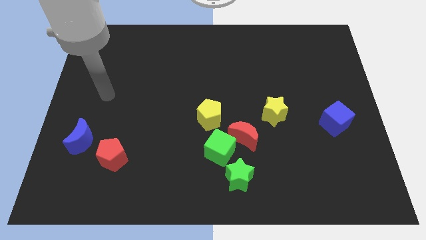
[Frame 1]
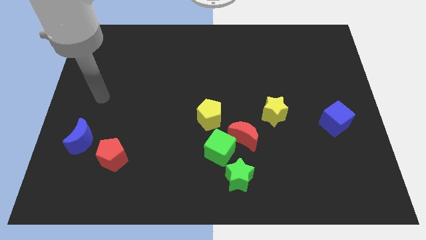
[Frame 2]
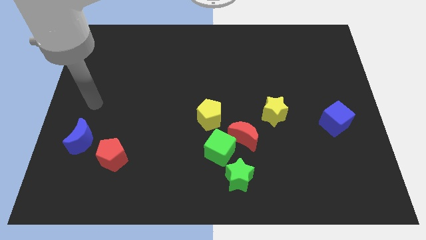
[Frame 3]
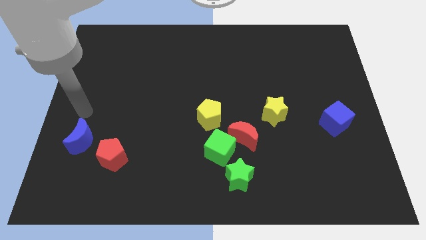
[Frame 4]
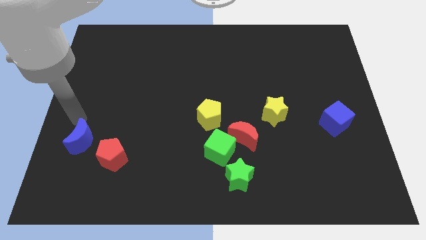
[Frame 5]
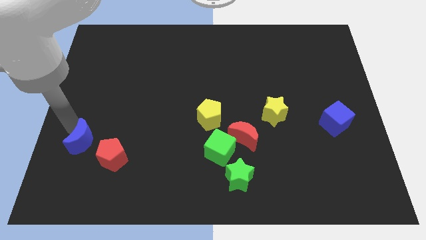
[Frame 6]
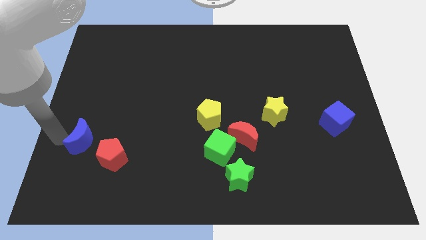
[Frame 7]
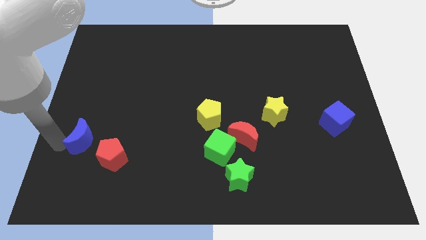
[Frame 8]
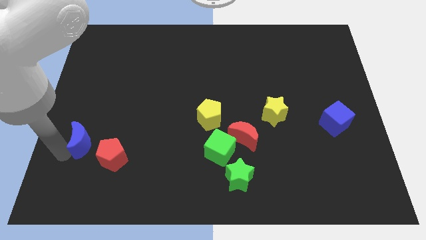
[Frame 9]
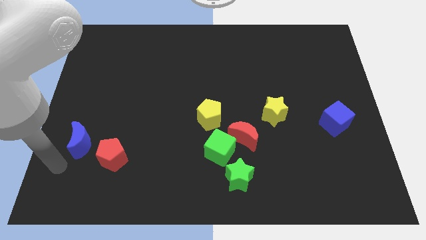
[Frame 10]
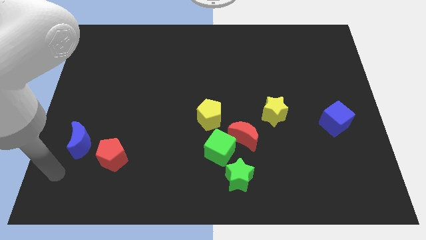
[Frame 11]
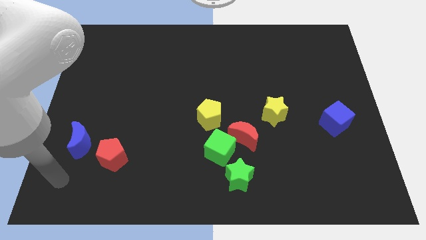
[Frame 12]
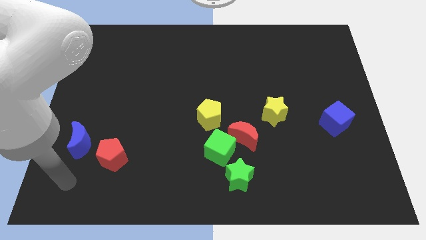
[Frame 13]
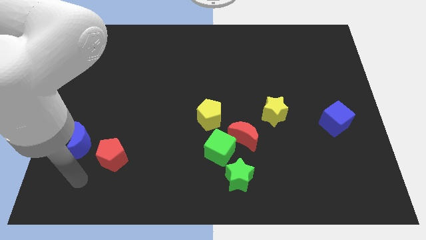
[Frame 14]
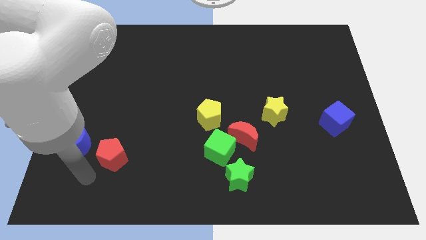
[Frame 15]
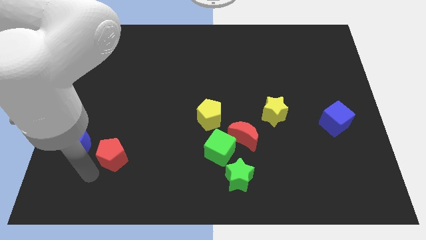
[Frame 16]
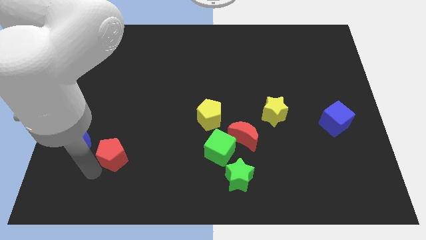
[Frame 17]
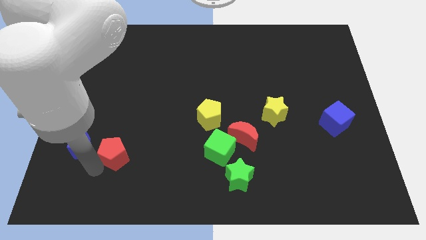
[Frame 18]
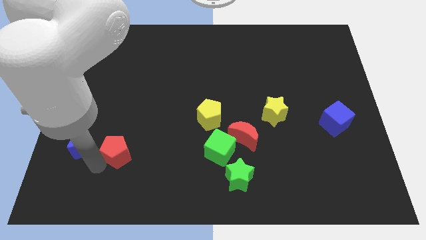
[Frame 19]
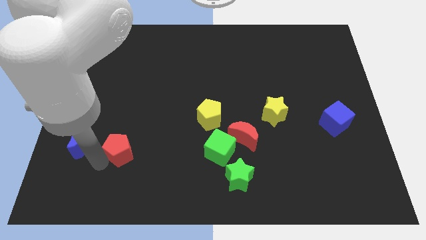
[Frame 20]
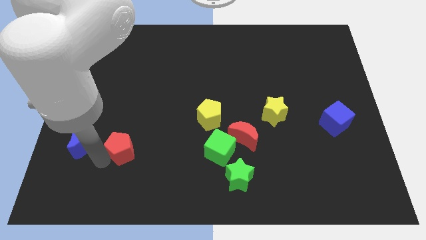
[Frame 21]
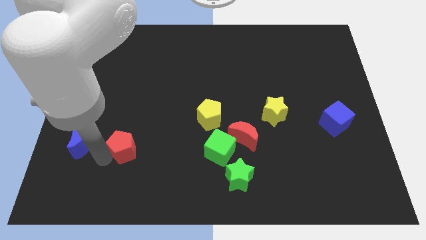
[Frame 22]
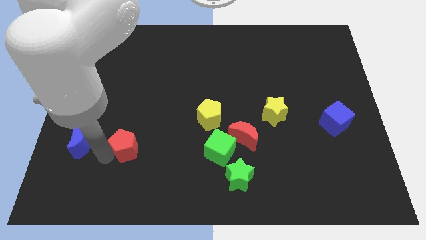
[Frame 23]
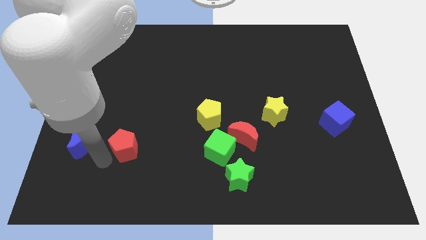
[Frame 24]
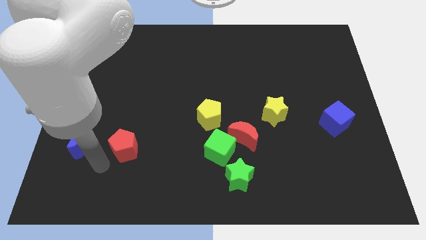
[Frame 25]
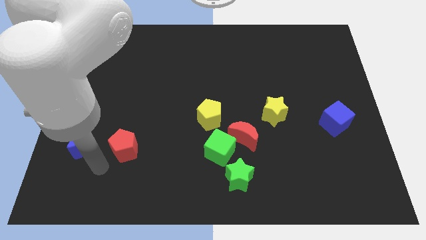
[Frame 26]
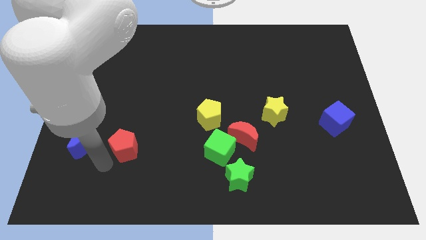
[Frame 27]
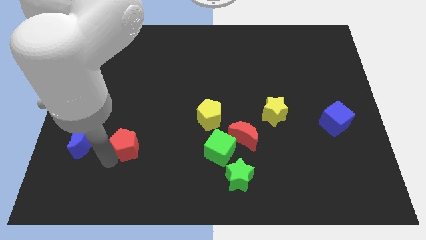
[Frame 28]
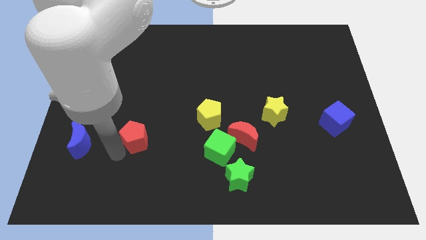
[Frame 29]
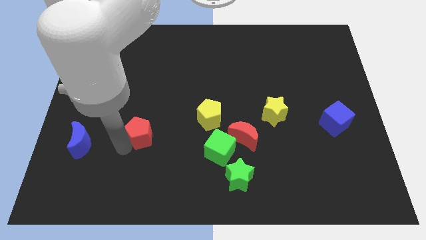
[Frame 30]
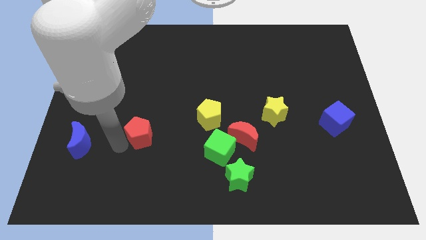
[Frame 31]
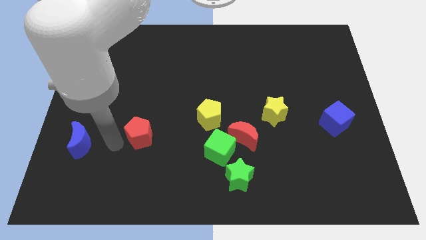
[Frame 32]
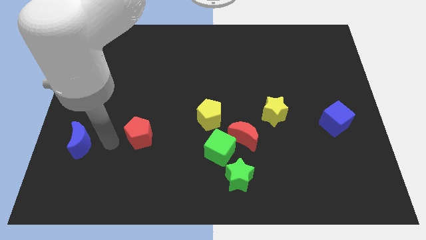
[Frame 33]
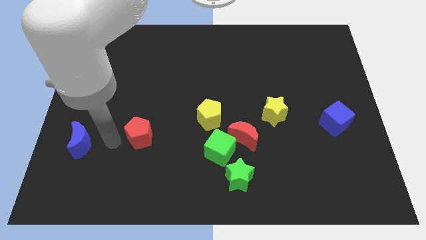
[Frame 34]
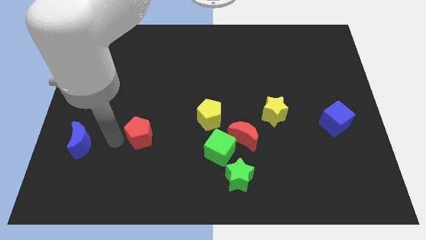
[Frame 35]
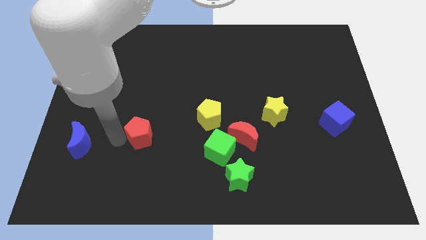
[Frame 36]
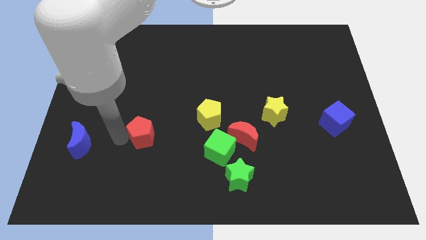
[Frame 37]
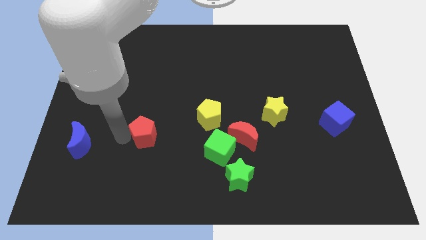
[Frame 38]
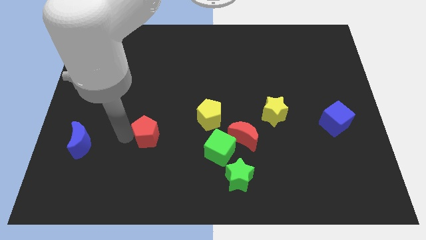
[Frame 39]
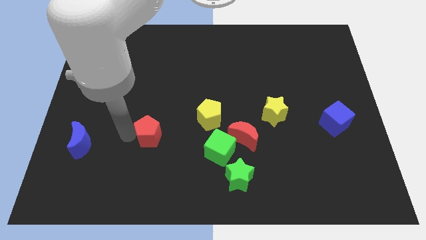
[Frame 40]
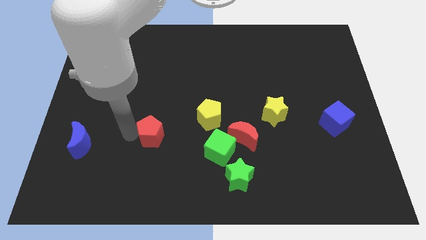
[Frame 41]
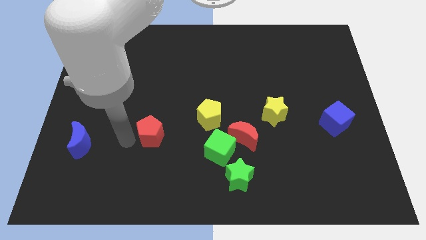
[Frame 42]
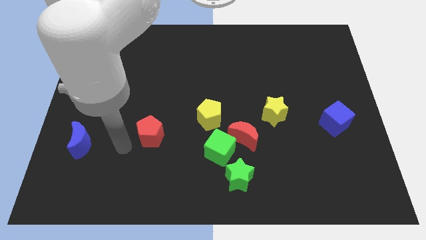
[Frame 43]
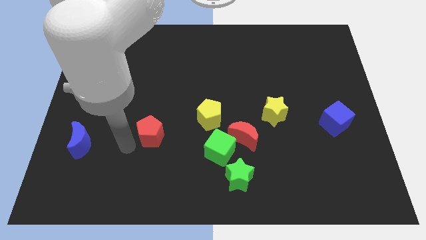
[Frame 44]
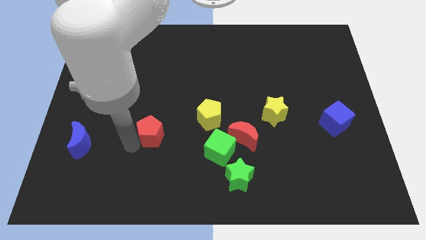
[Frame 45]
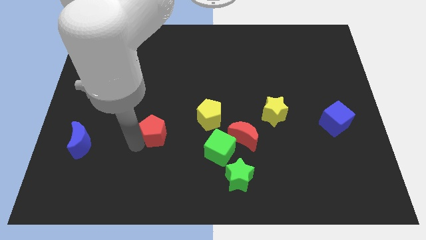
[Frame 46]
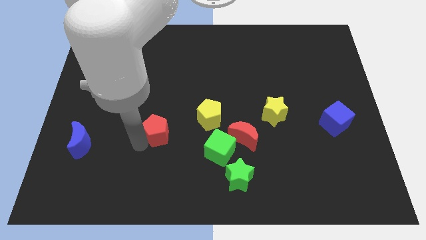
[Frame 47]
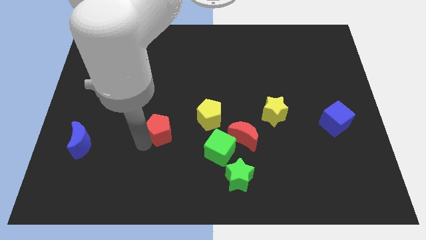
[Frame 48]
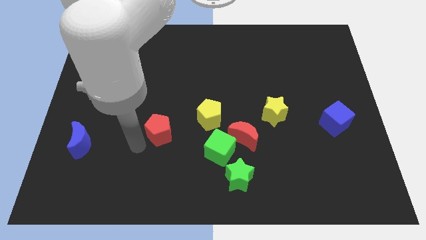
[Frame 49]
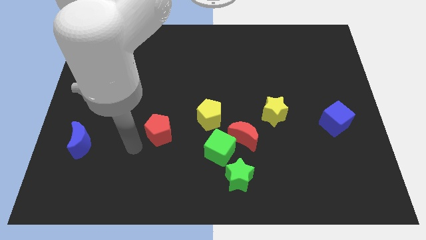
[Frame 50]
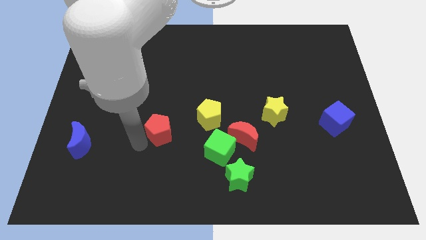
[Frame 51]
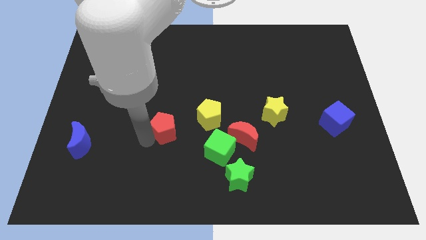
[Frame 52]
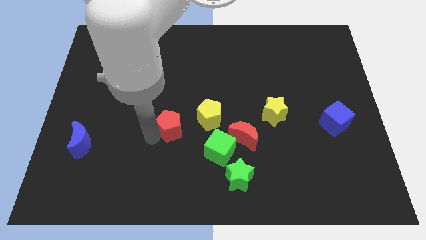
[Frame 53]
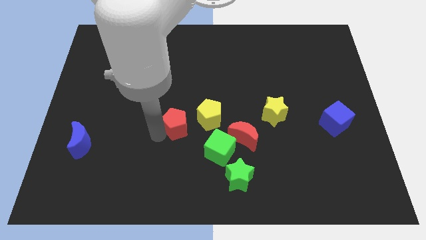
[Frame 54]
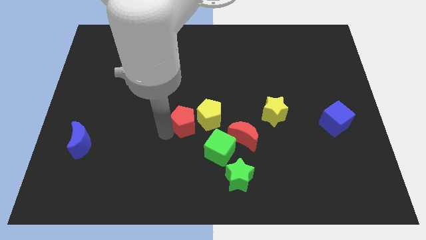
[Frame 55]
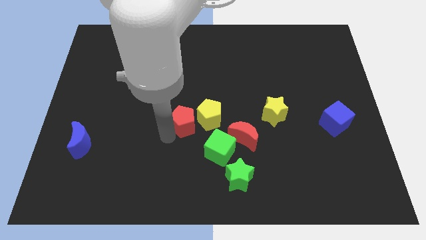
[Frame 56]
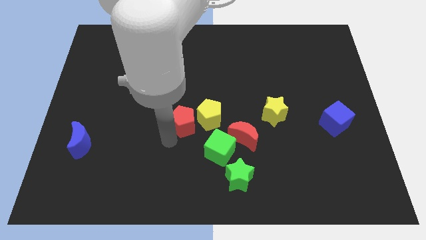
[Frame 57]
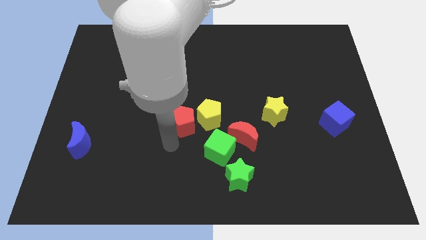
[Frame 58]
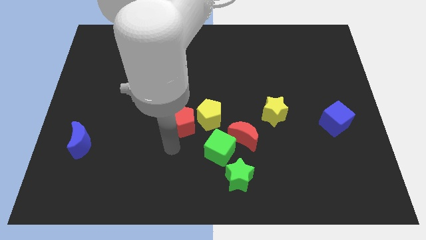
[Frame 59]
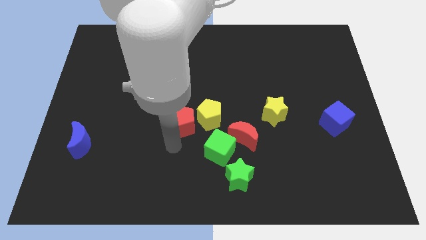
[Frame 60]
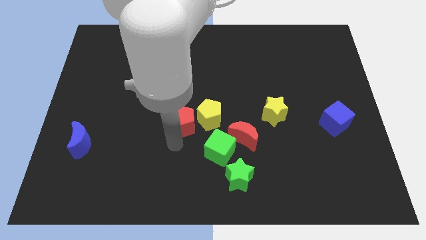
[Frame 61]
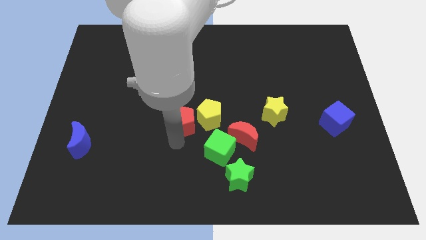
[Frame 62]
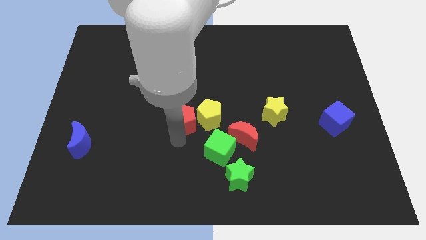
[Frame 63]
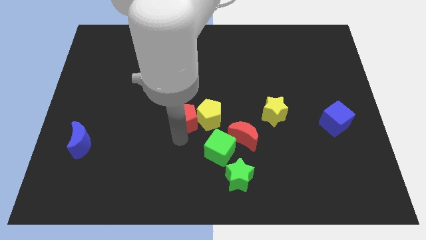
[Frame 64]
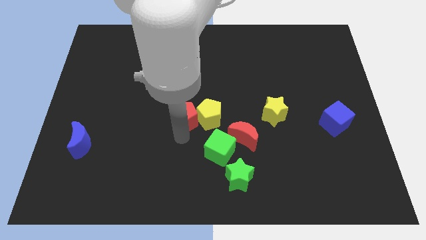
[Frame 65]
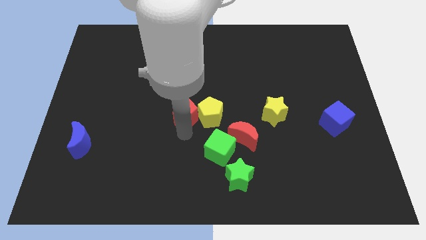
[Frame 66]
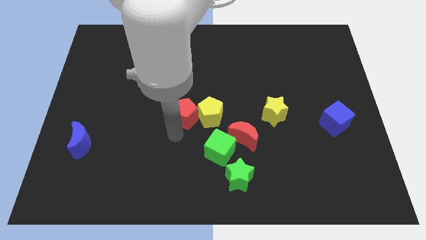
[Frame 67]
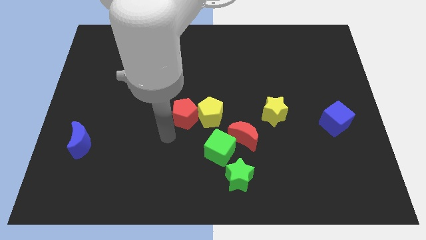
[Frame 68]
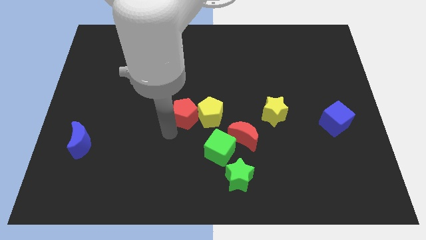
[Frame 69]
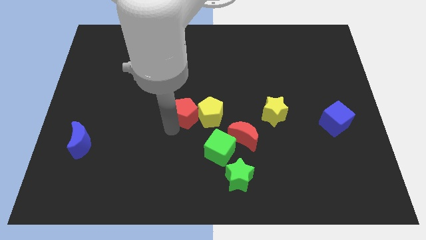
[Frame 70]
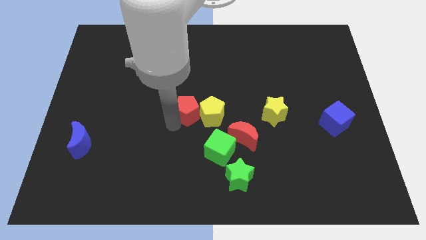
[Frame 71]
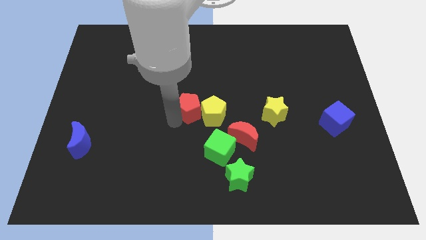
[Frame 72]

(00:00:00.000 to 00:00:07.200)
move the red pentagon diagonally upwards and to the right

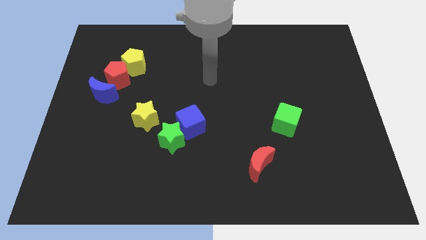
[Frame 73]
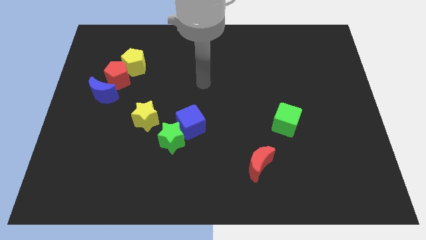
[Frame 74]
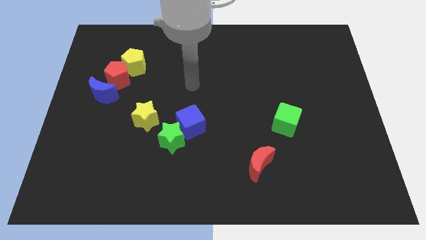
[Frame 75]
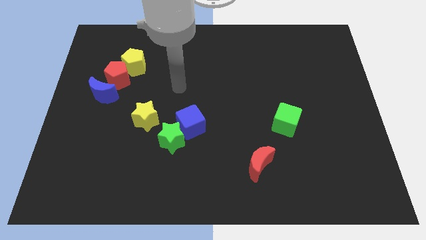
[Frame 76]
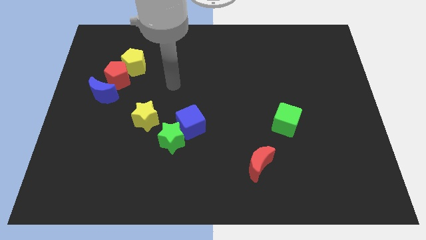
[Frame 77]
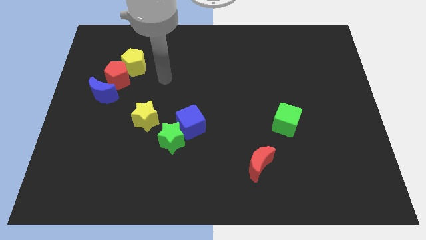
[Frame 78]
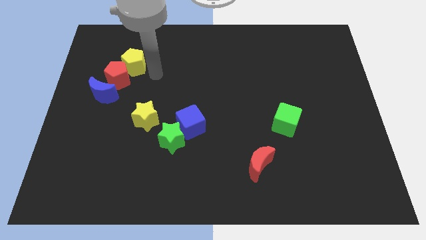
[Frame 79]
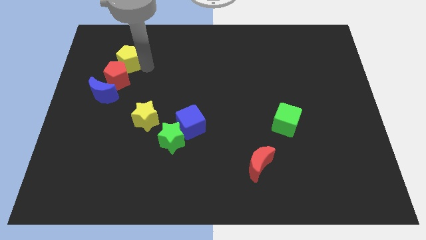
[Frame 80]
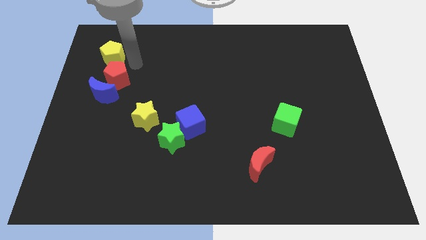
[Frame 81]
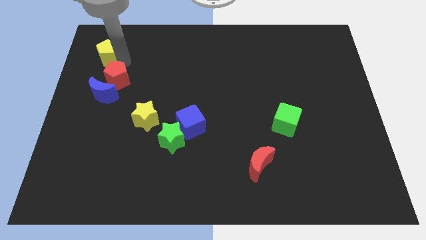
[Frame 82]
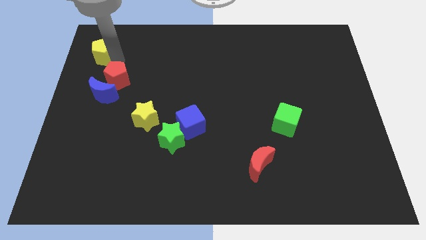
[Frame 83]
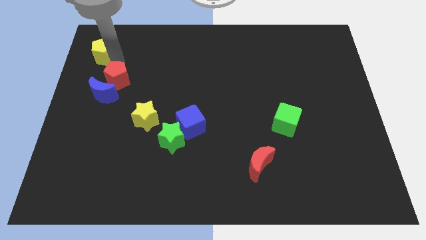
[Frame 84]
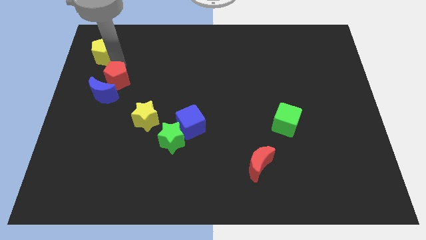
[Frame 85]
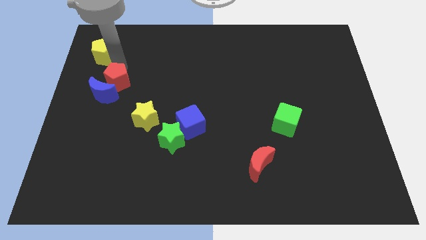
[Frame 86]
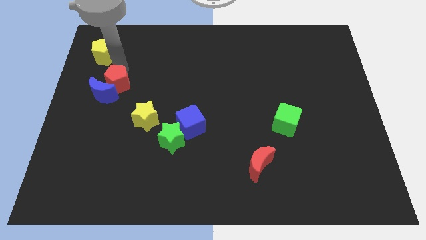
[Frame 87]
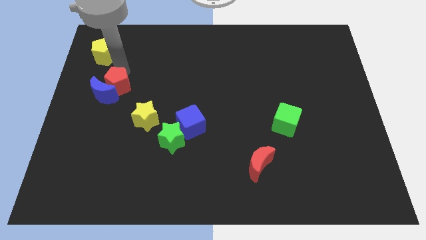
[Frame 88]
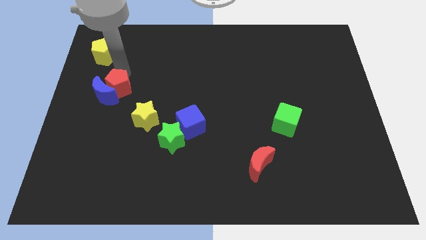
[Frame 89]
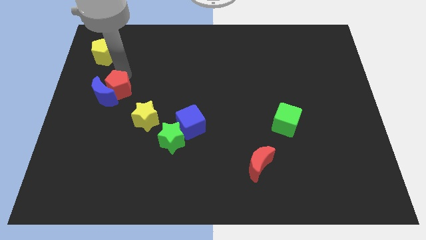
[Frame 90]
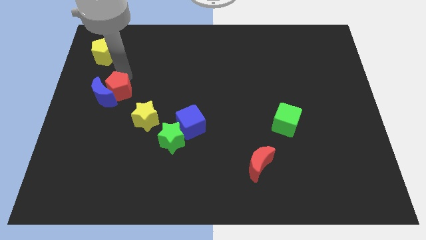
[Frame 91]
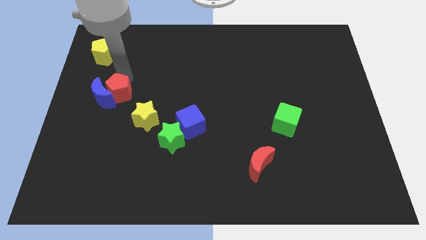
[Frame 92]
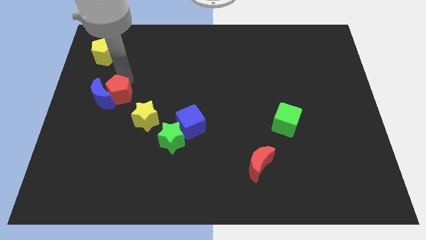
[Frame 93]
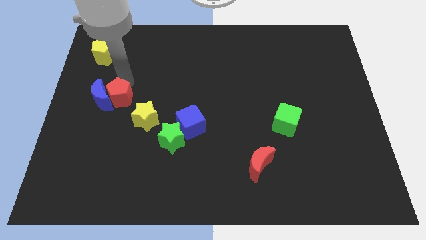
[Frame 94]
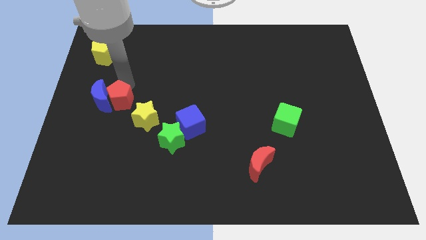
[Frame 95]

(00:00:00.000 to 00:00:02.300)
slide the red pentagon a little down
